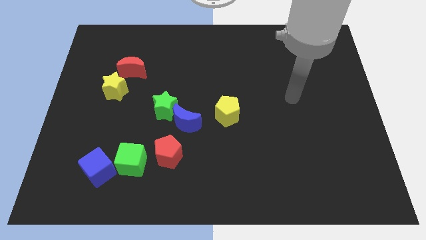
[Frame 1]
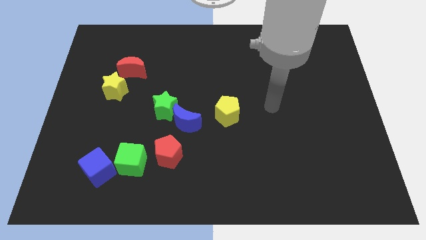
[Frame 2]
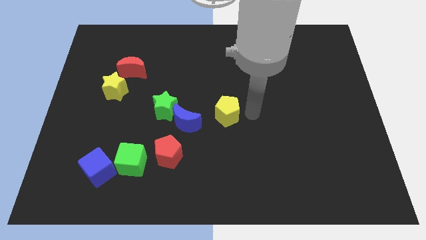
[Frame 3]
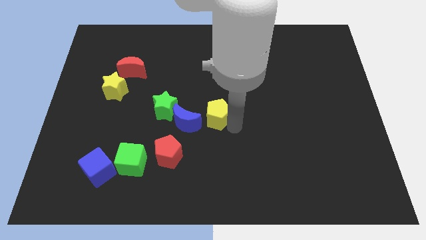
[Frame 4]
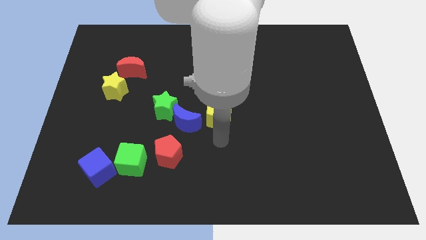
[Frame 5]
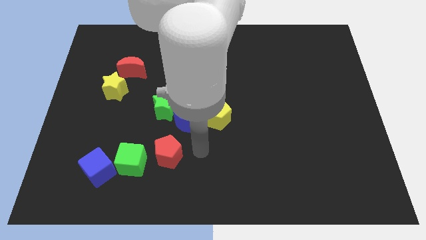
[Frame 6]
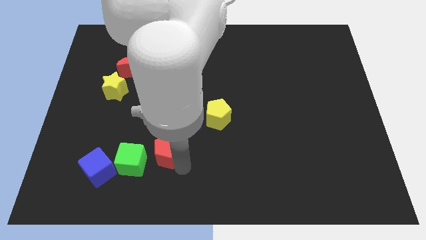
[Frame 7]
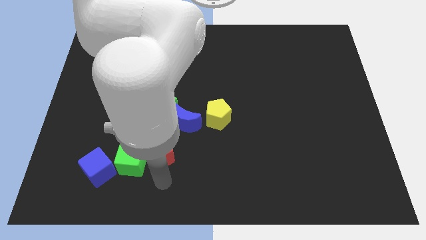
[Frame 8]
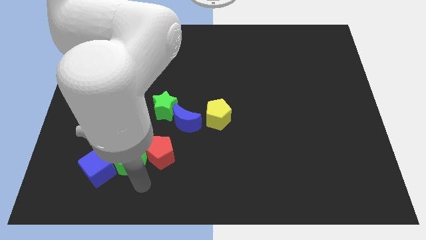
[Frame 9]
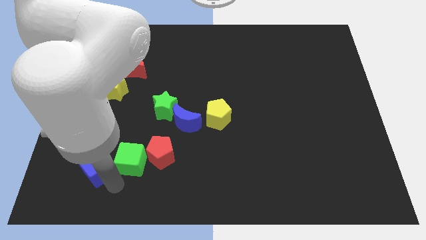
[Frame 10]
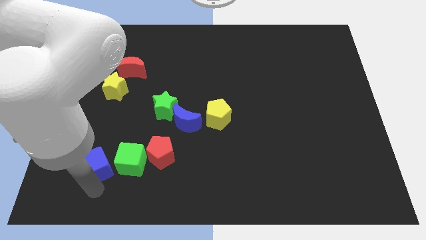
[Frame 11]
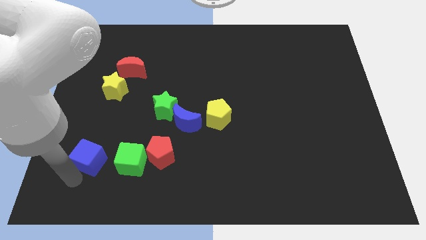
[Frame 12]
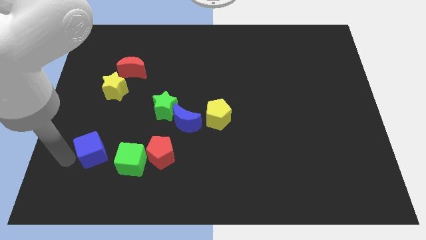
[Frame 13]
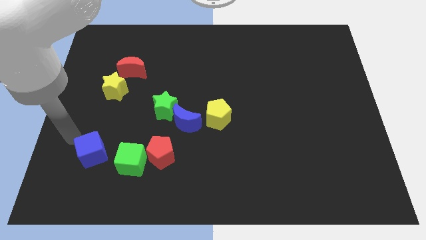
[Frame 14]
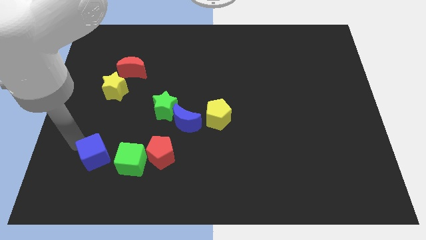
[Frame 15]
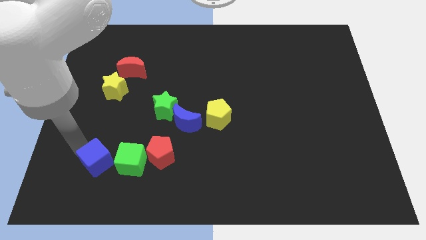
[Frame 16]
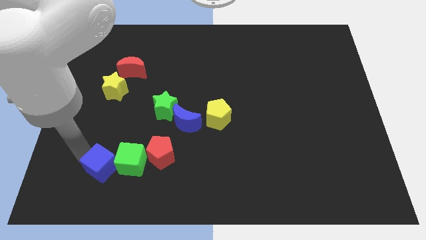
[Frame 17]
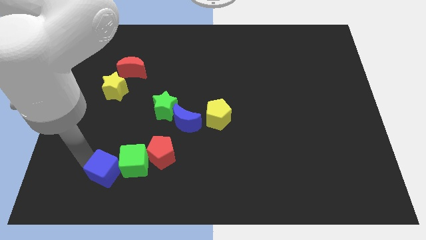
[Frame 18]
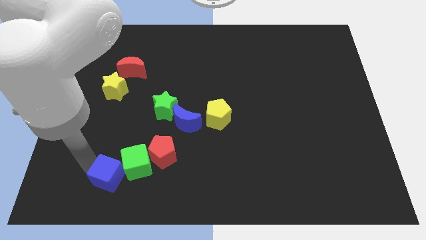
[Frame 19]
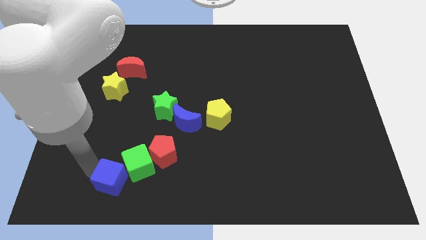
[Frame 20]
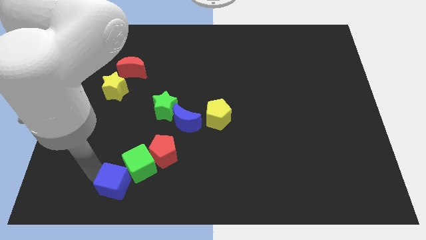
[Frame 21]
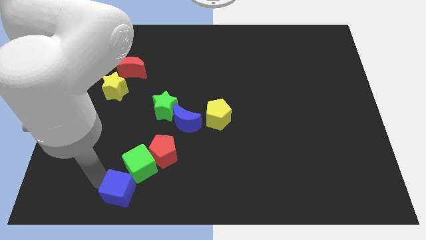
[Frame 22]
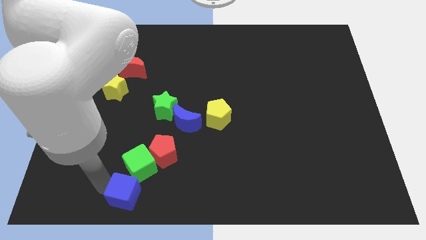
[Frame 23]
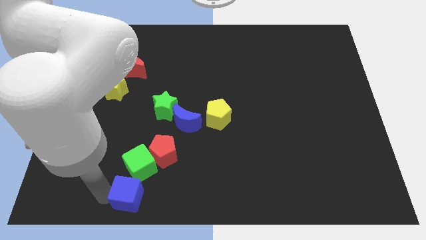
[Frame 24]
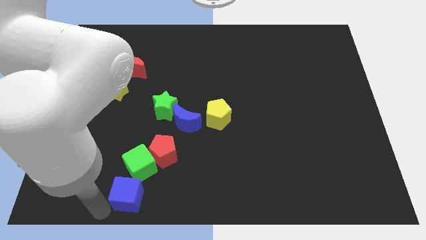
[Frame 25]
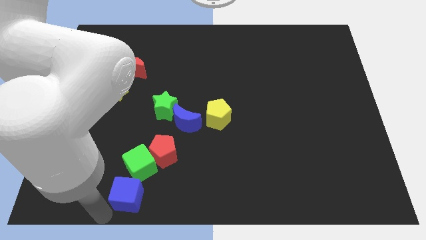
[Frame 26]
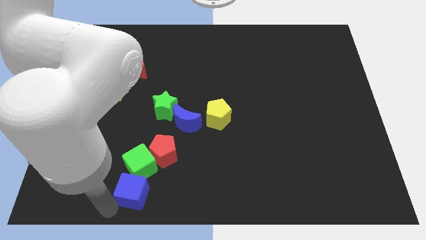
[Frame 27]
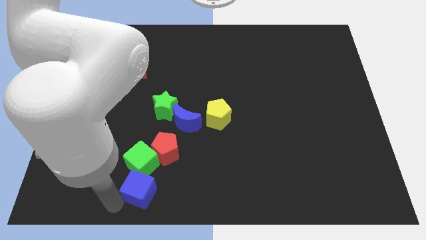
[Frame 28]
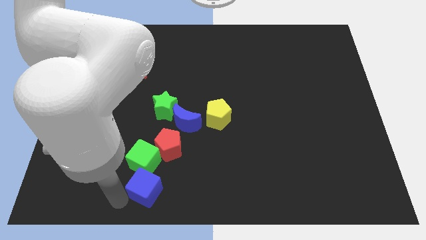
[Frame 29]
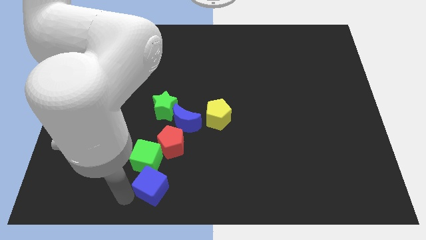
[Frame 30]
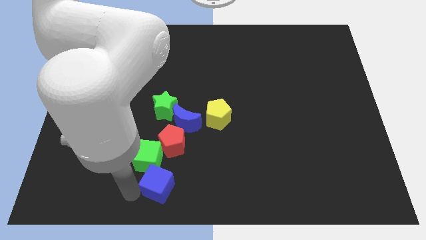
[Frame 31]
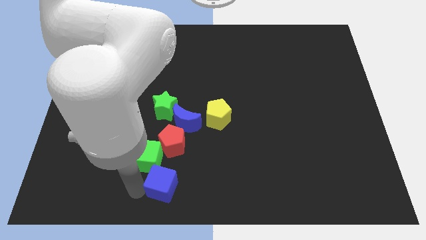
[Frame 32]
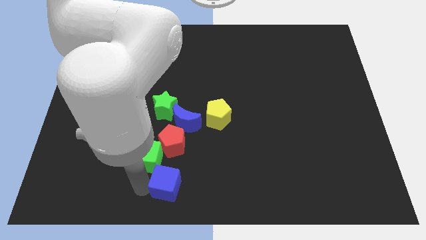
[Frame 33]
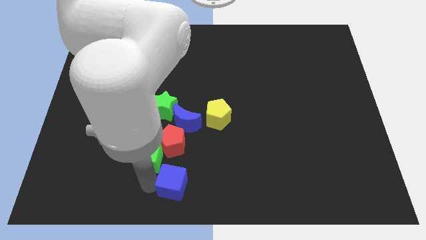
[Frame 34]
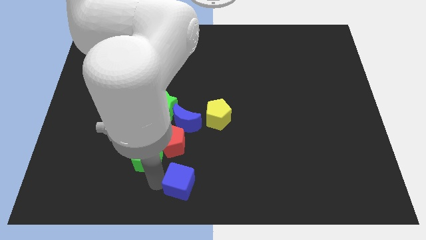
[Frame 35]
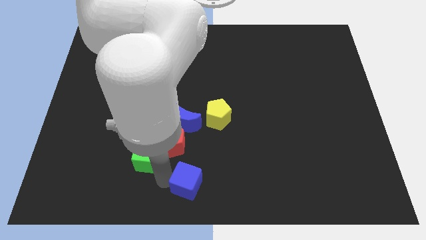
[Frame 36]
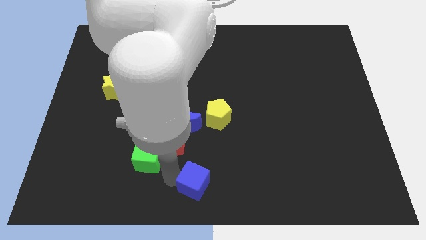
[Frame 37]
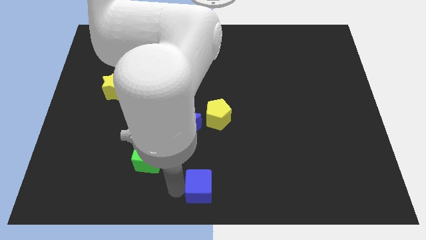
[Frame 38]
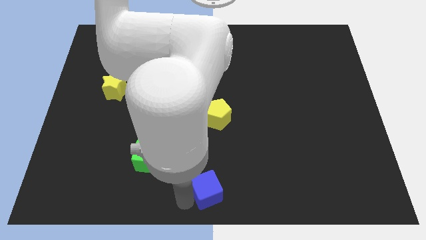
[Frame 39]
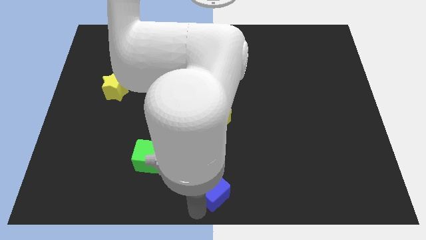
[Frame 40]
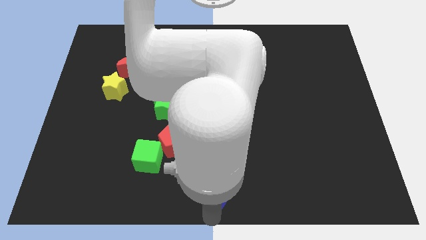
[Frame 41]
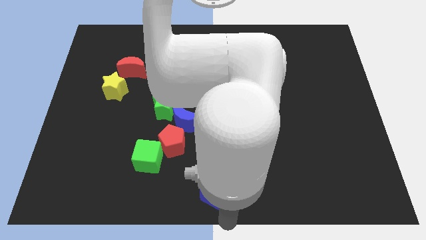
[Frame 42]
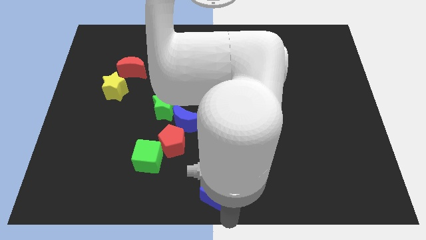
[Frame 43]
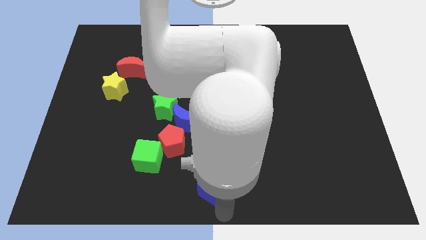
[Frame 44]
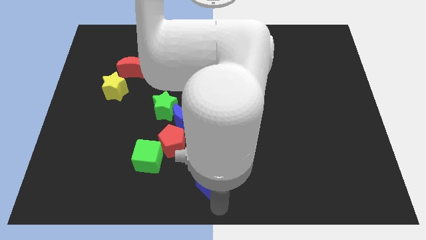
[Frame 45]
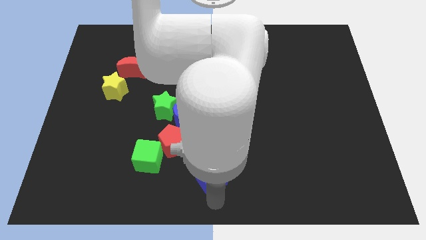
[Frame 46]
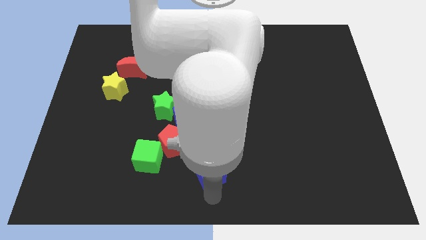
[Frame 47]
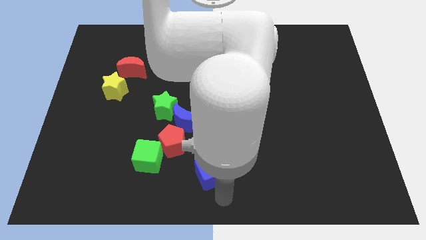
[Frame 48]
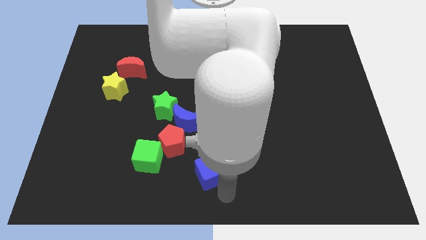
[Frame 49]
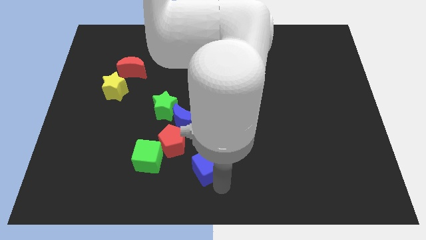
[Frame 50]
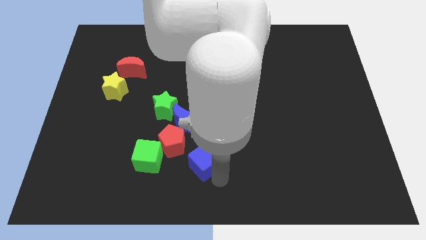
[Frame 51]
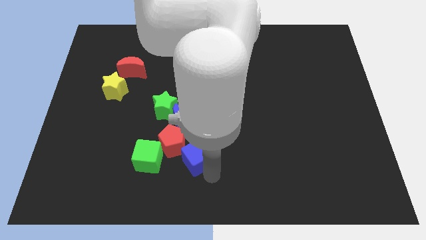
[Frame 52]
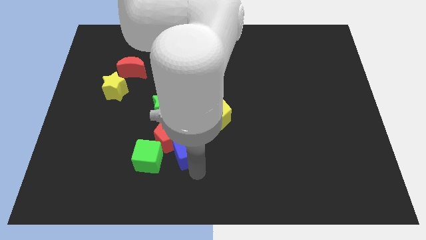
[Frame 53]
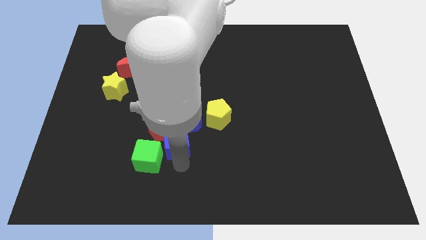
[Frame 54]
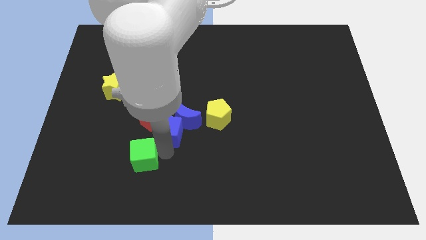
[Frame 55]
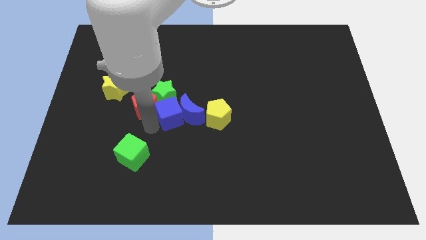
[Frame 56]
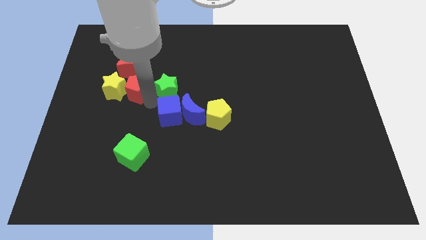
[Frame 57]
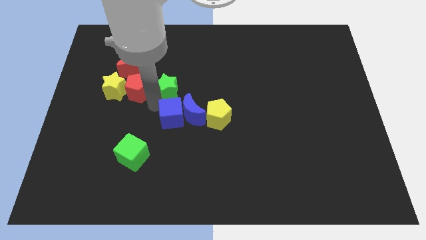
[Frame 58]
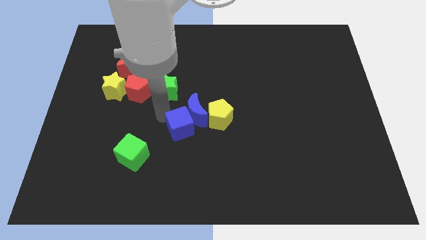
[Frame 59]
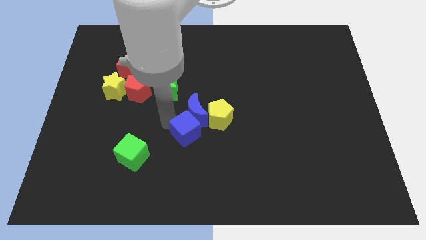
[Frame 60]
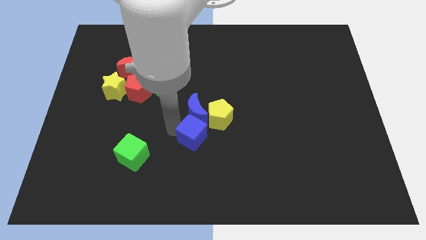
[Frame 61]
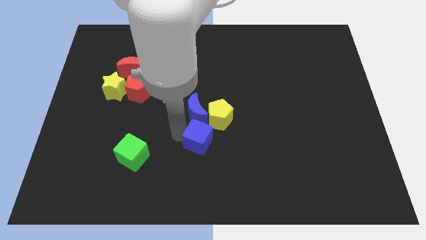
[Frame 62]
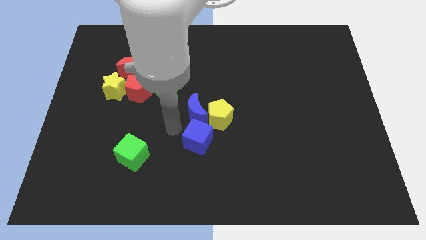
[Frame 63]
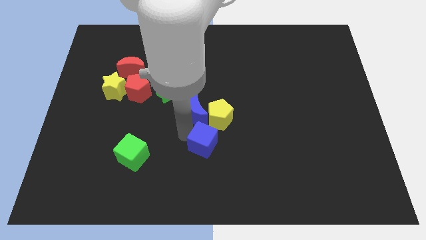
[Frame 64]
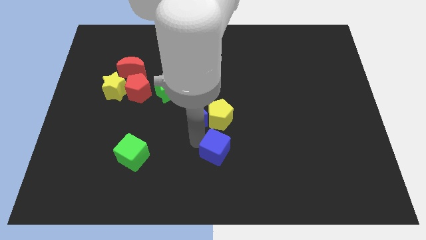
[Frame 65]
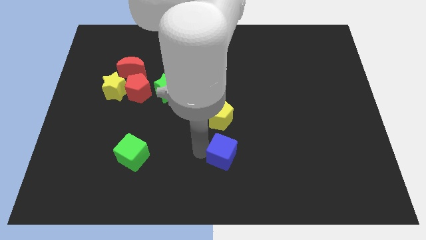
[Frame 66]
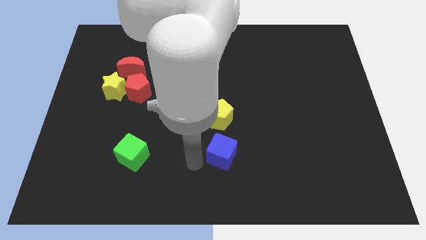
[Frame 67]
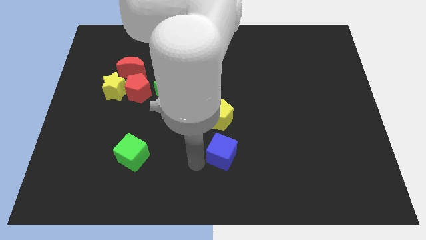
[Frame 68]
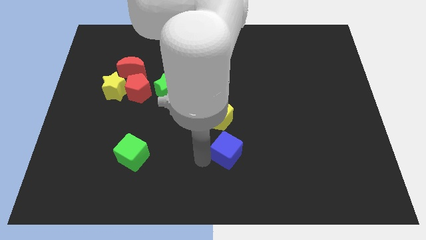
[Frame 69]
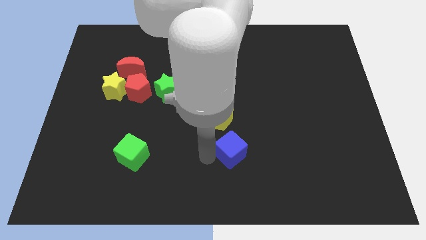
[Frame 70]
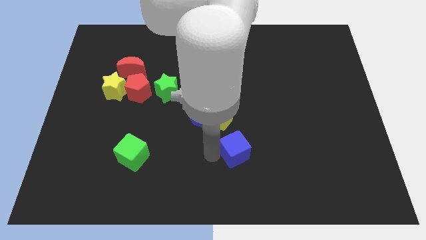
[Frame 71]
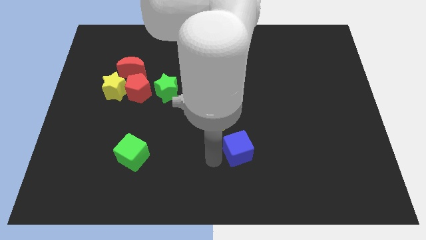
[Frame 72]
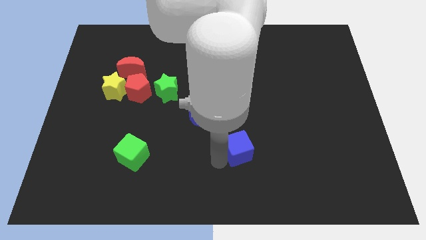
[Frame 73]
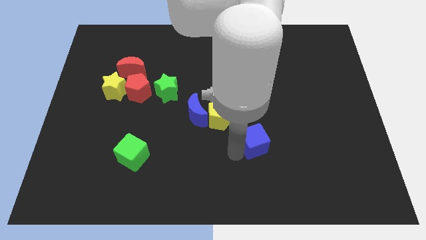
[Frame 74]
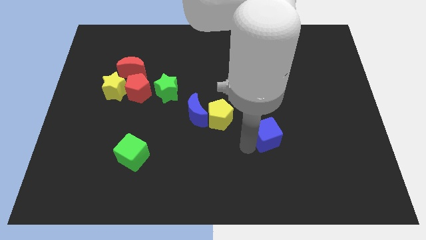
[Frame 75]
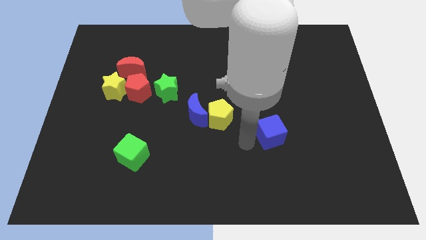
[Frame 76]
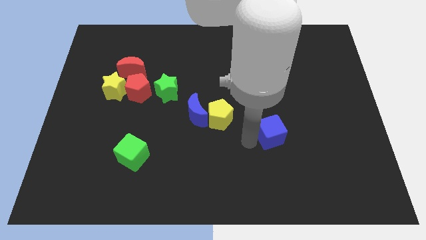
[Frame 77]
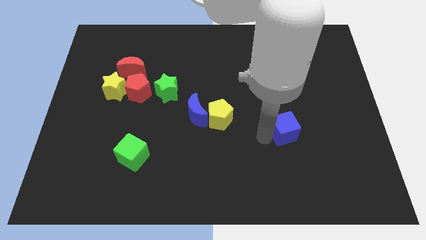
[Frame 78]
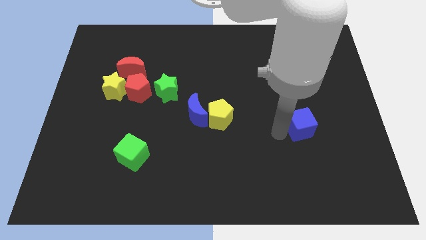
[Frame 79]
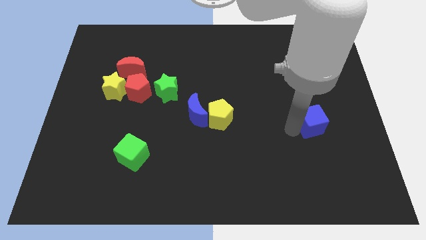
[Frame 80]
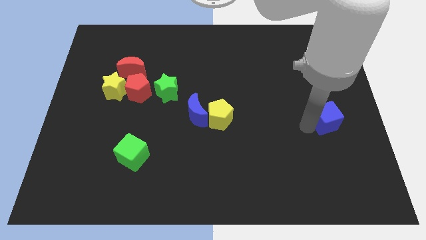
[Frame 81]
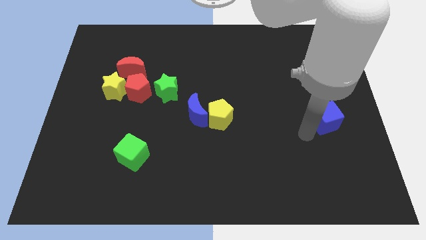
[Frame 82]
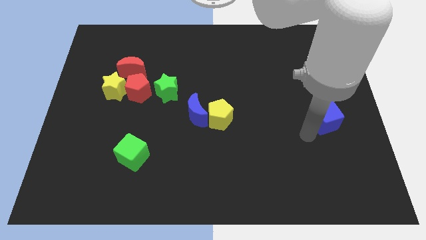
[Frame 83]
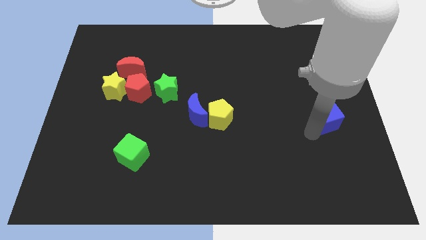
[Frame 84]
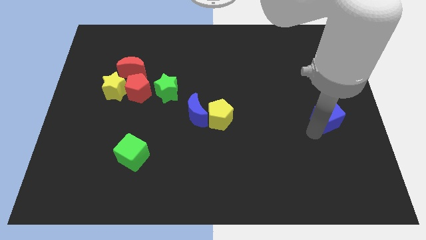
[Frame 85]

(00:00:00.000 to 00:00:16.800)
push the blue cube to the right side
